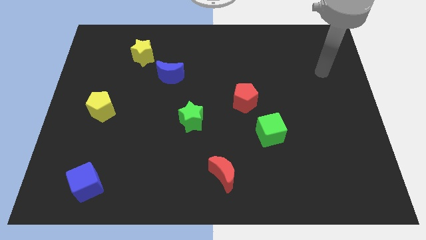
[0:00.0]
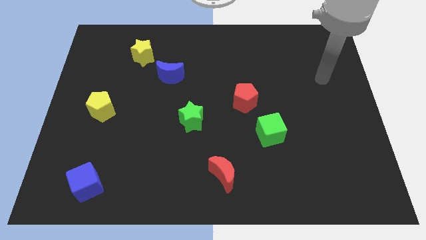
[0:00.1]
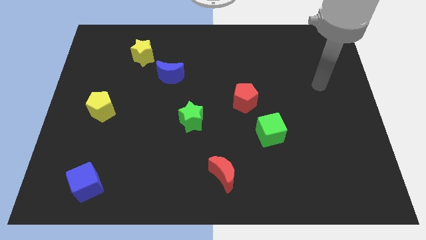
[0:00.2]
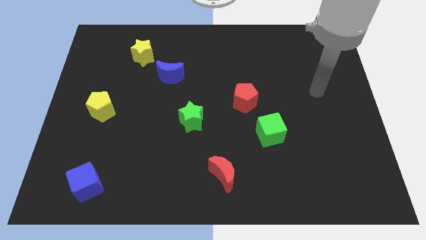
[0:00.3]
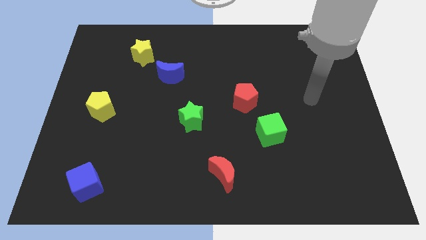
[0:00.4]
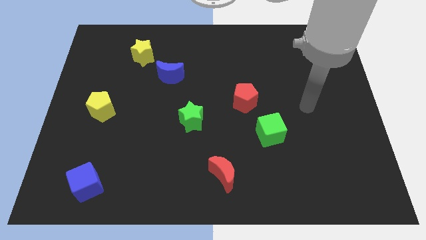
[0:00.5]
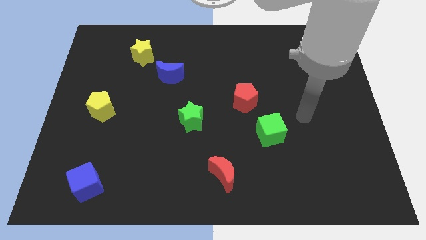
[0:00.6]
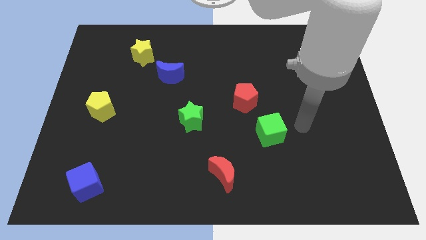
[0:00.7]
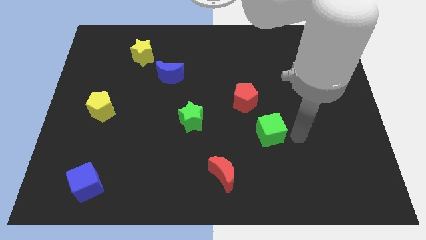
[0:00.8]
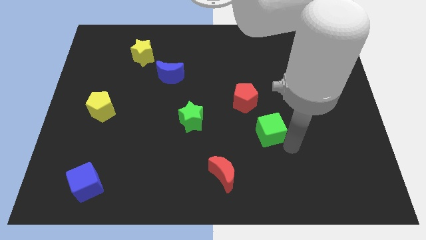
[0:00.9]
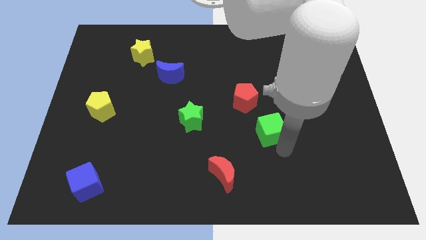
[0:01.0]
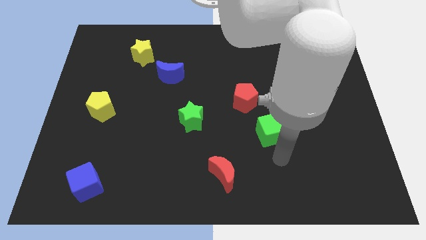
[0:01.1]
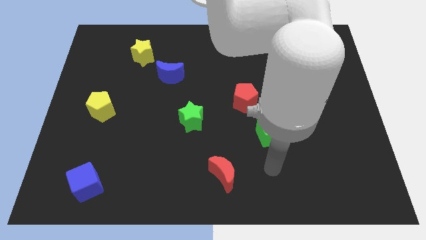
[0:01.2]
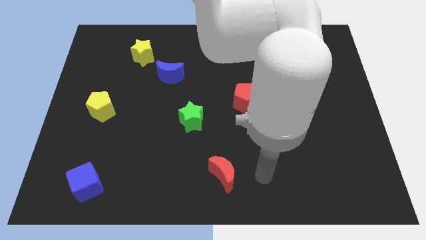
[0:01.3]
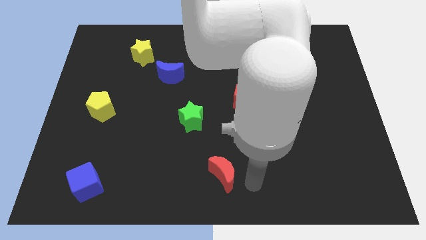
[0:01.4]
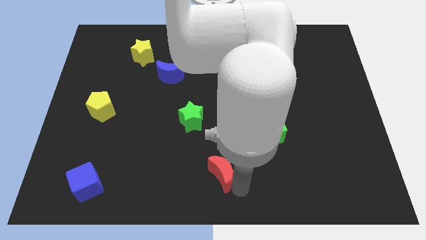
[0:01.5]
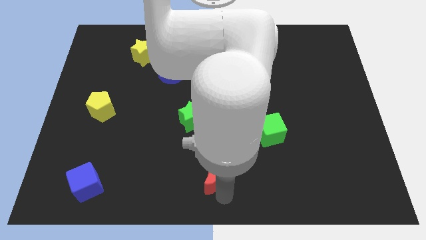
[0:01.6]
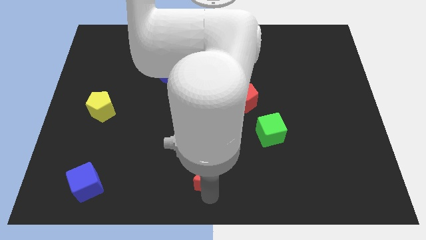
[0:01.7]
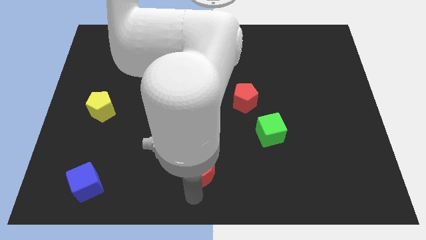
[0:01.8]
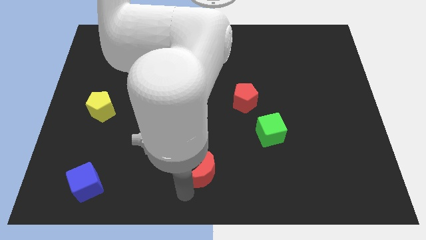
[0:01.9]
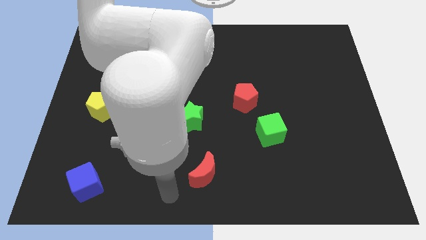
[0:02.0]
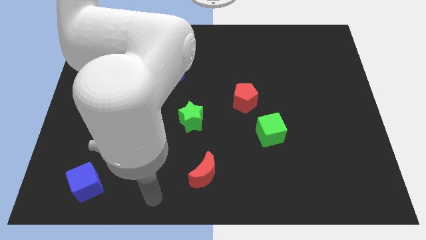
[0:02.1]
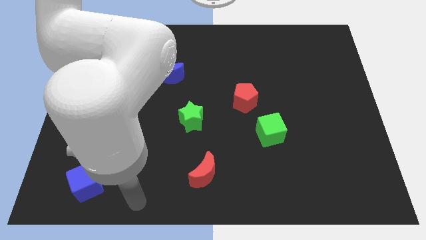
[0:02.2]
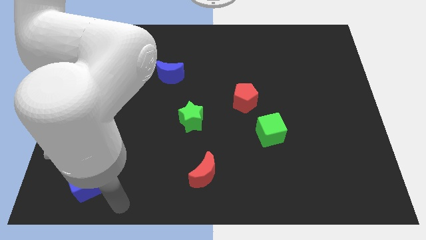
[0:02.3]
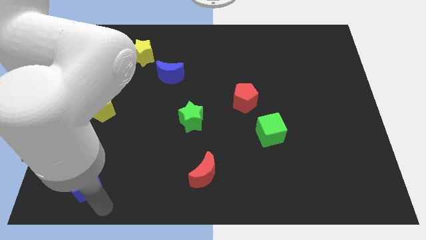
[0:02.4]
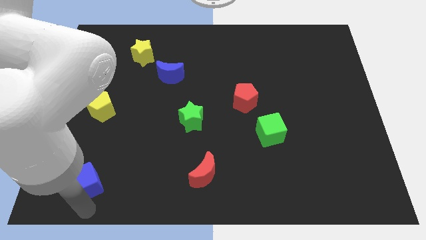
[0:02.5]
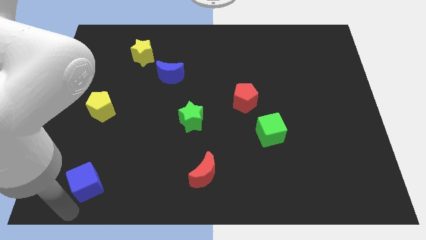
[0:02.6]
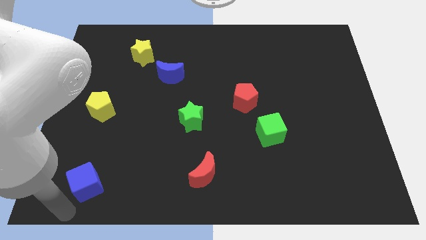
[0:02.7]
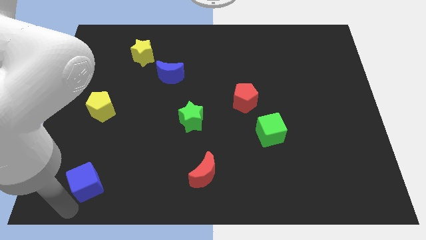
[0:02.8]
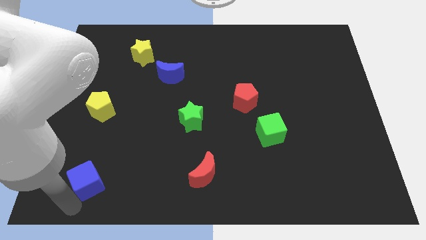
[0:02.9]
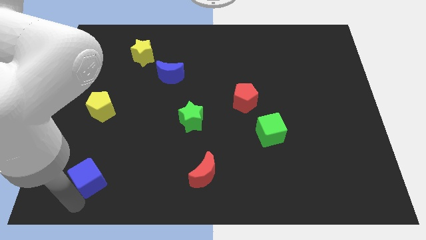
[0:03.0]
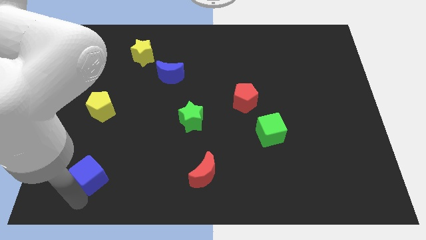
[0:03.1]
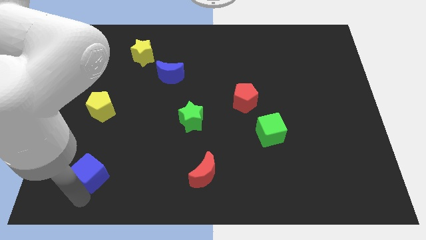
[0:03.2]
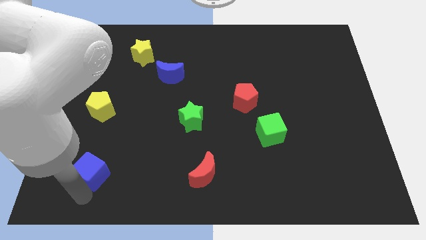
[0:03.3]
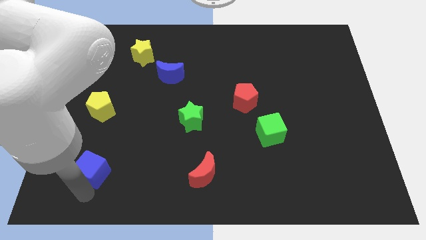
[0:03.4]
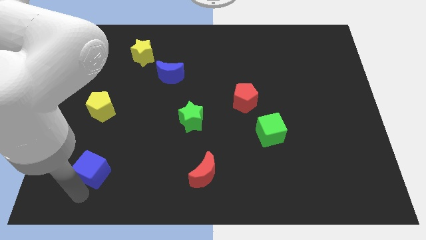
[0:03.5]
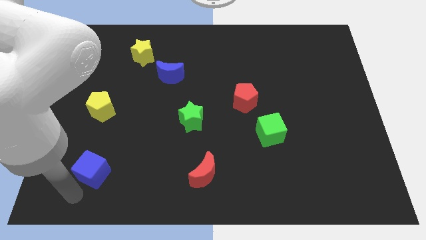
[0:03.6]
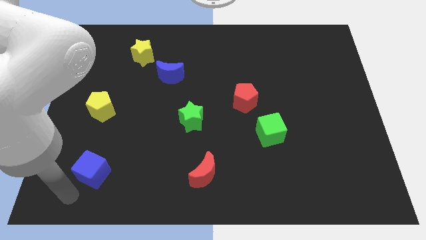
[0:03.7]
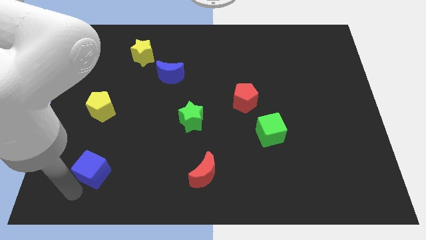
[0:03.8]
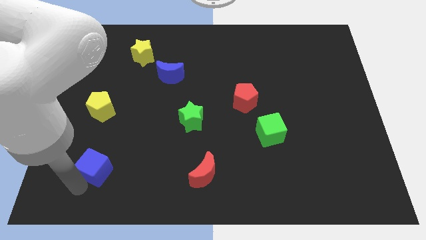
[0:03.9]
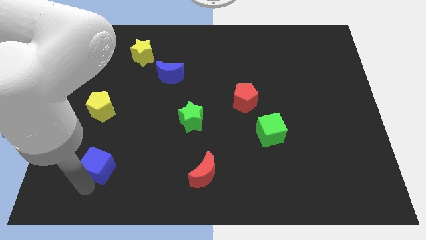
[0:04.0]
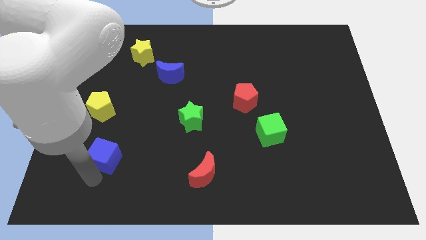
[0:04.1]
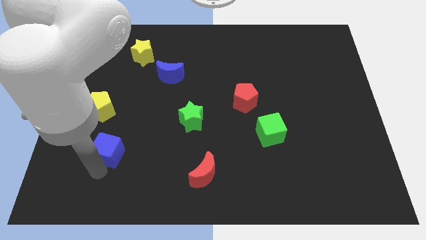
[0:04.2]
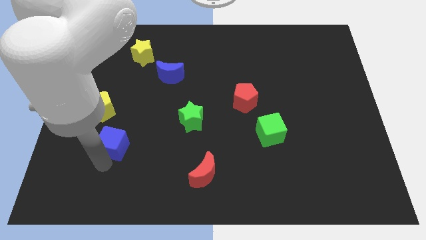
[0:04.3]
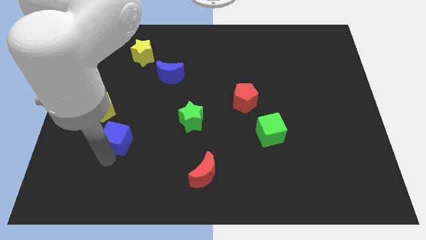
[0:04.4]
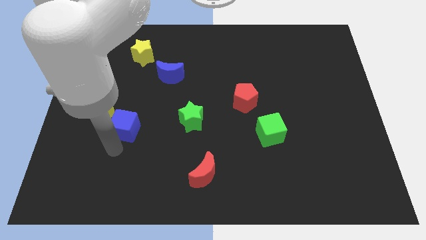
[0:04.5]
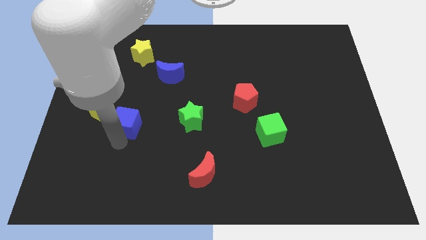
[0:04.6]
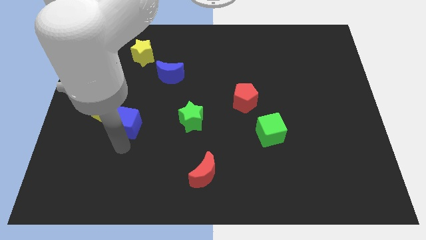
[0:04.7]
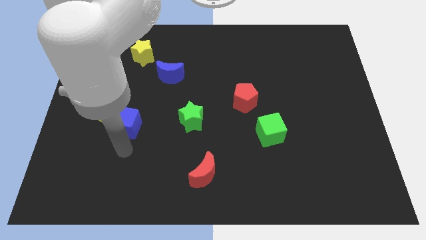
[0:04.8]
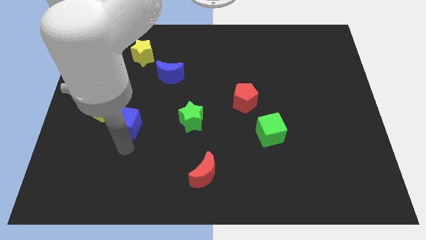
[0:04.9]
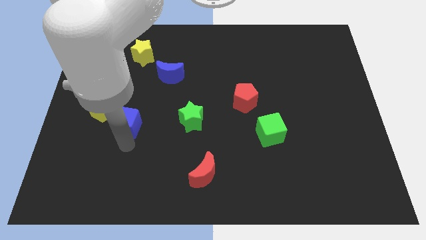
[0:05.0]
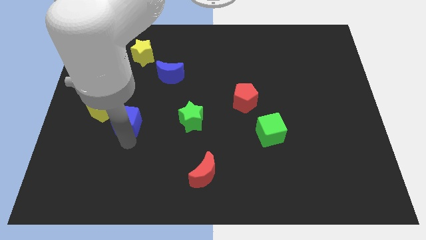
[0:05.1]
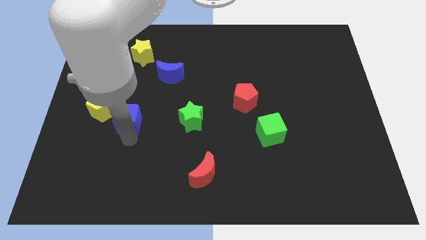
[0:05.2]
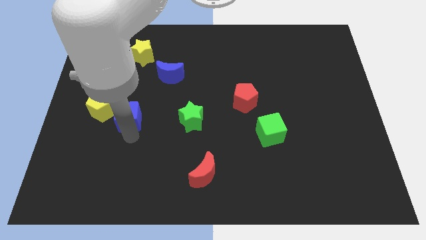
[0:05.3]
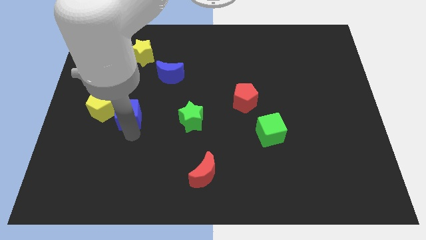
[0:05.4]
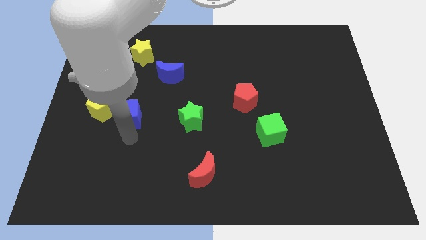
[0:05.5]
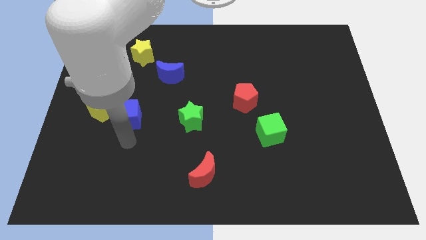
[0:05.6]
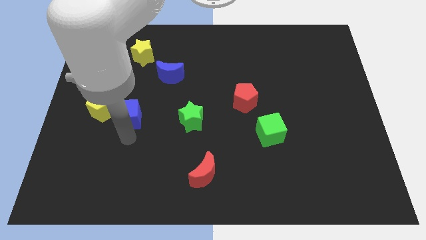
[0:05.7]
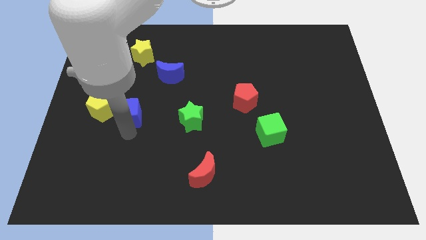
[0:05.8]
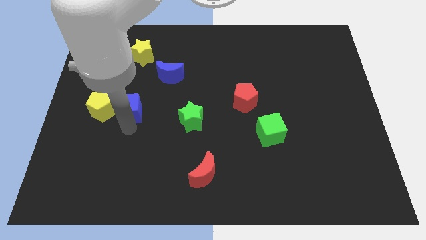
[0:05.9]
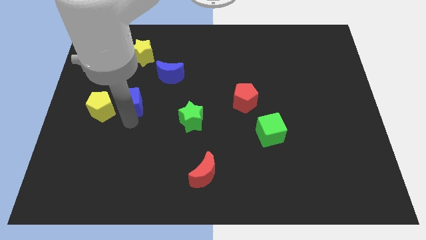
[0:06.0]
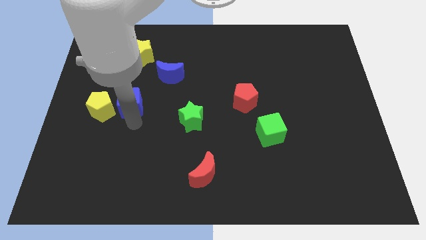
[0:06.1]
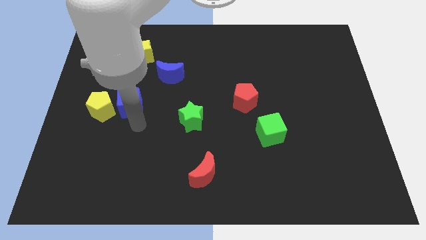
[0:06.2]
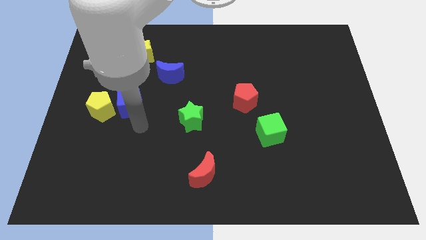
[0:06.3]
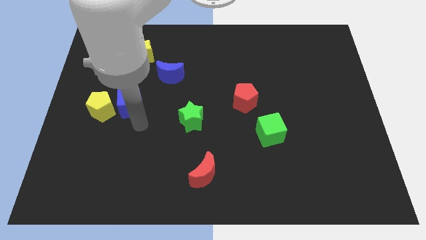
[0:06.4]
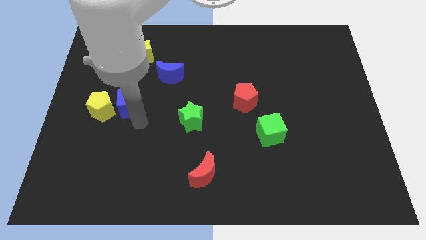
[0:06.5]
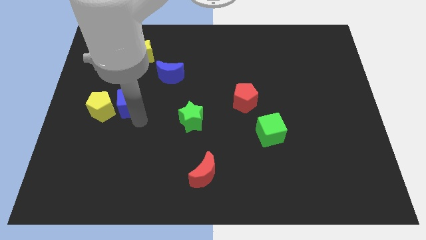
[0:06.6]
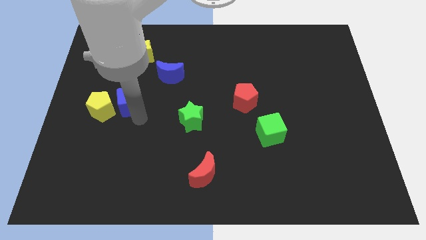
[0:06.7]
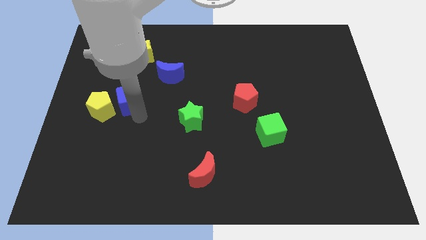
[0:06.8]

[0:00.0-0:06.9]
push the blue cube up

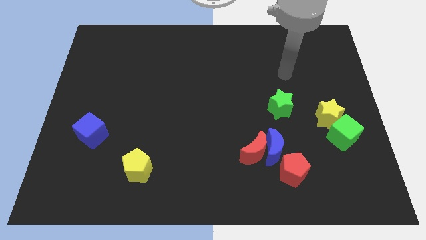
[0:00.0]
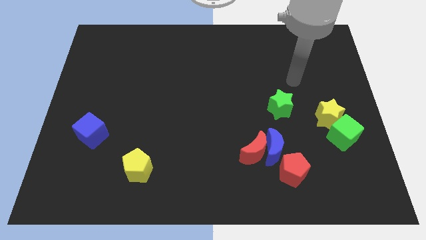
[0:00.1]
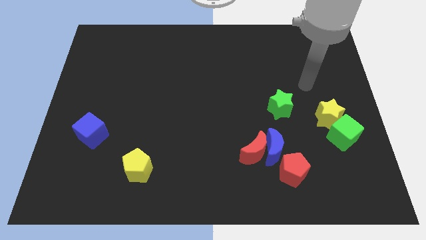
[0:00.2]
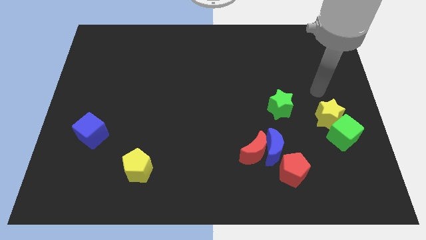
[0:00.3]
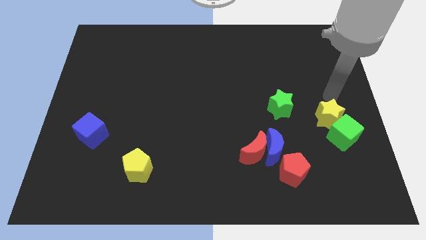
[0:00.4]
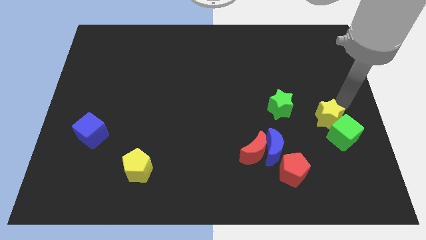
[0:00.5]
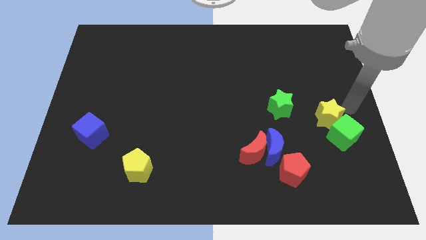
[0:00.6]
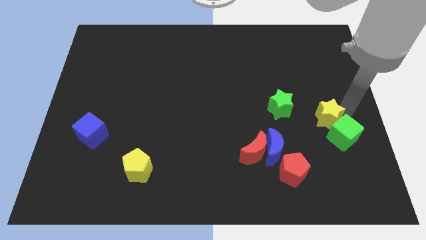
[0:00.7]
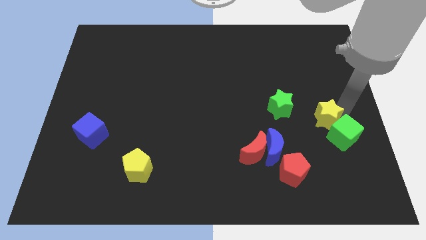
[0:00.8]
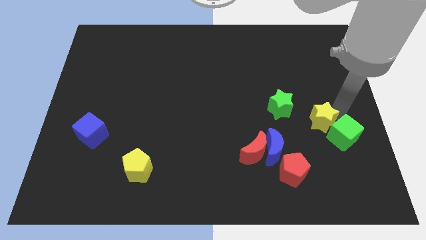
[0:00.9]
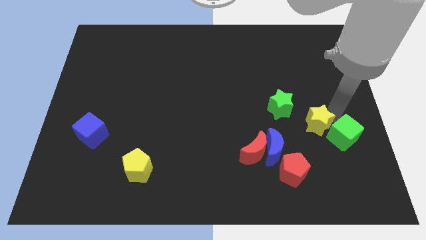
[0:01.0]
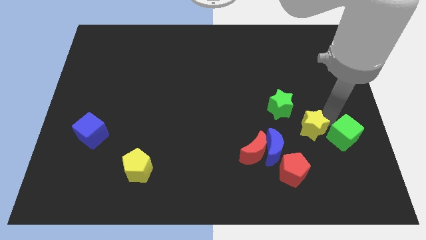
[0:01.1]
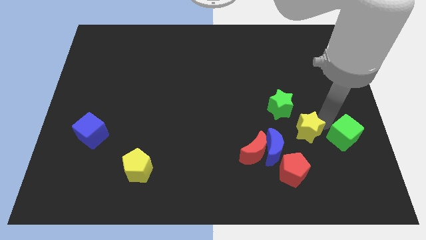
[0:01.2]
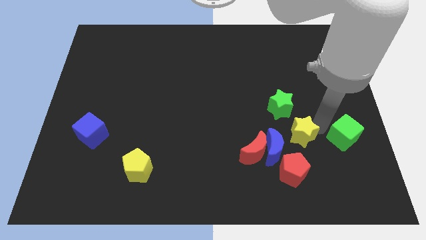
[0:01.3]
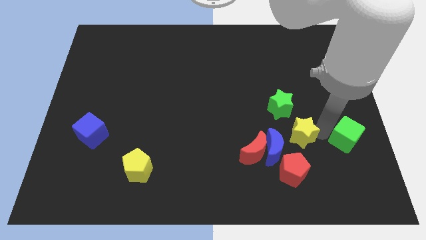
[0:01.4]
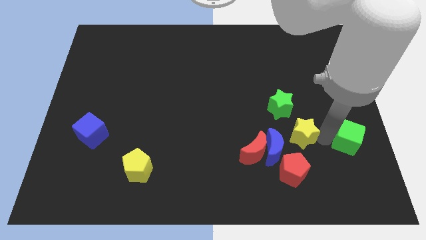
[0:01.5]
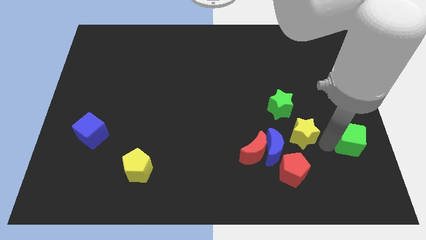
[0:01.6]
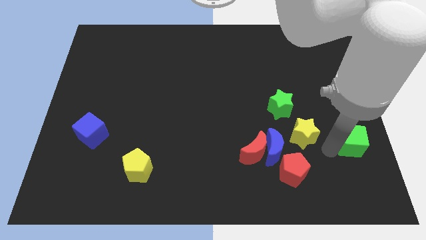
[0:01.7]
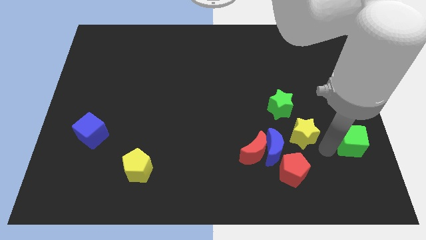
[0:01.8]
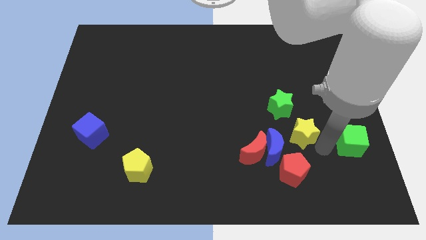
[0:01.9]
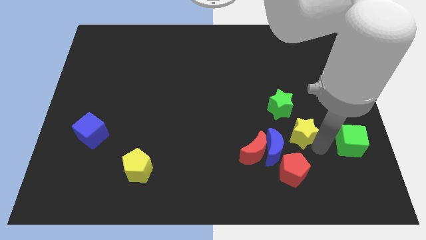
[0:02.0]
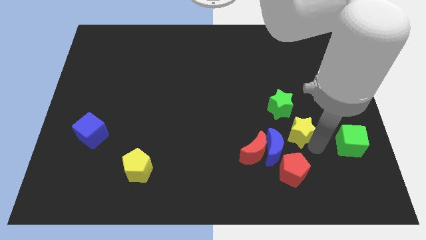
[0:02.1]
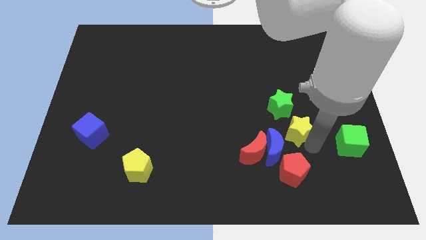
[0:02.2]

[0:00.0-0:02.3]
slide the yellow star to the left a little bit
